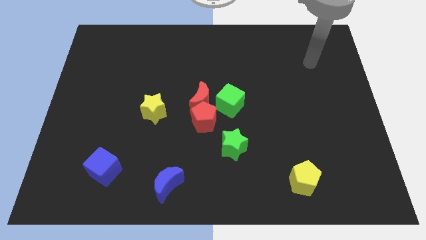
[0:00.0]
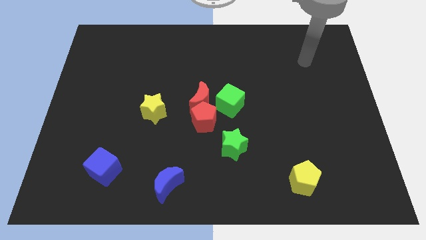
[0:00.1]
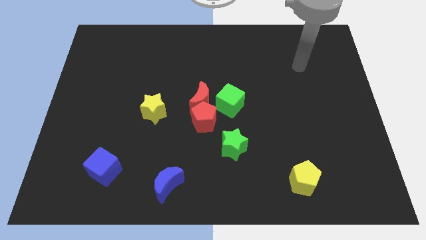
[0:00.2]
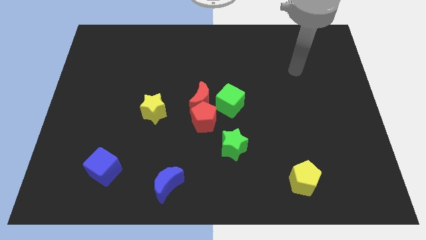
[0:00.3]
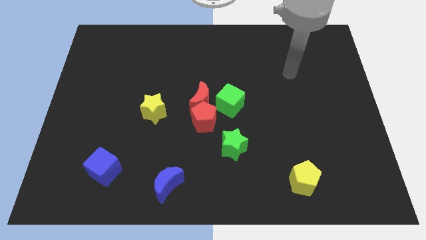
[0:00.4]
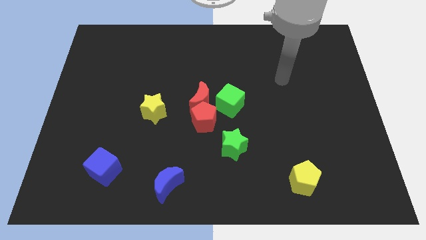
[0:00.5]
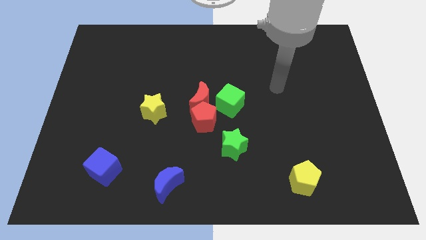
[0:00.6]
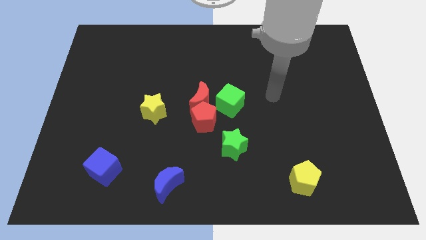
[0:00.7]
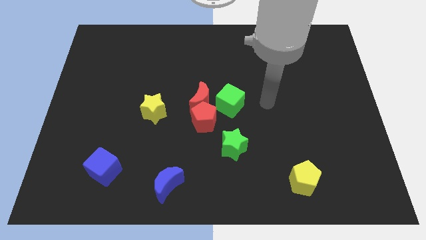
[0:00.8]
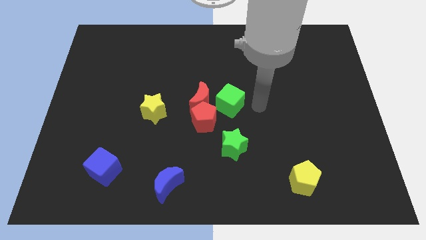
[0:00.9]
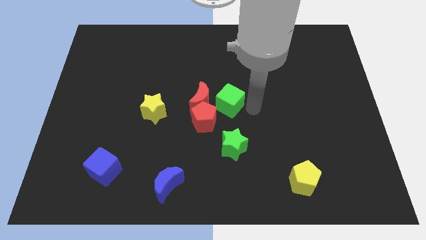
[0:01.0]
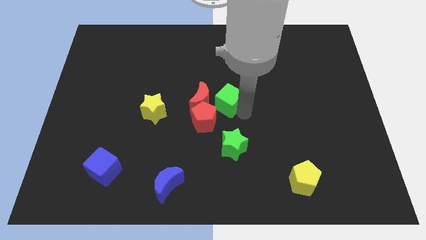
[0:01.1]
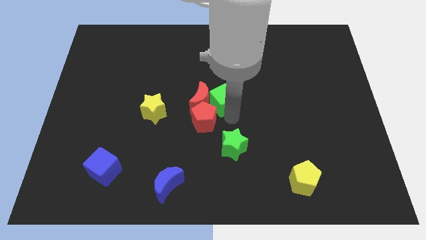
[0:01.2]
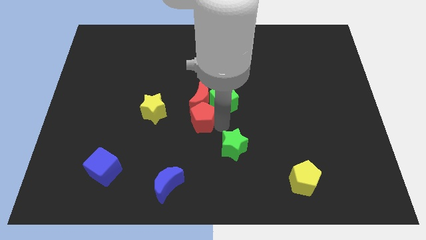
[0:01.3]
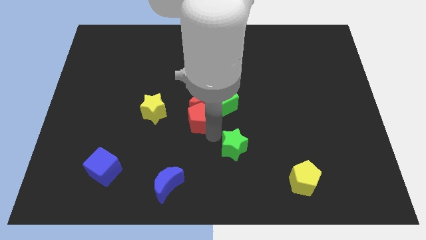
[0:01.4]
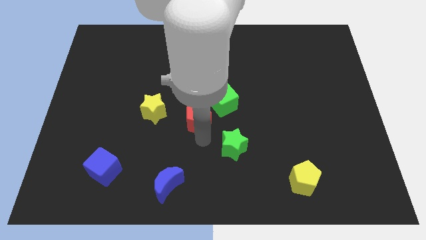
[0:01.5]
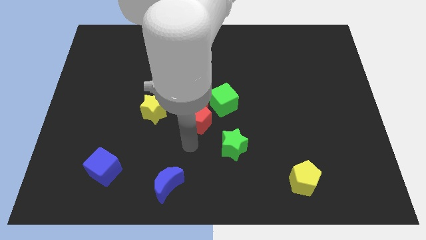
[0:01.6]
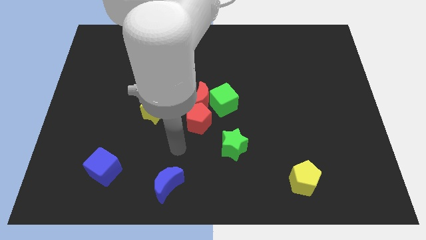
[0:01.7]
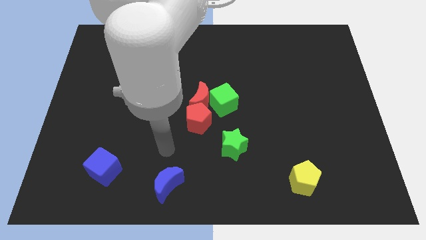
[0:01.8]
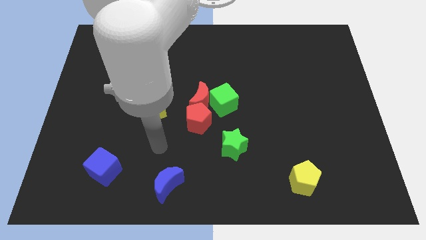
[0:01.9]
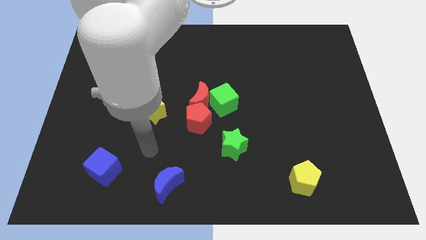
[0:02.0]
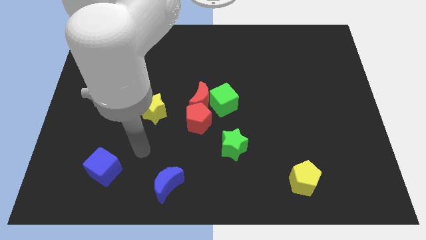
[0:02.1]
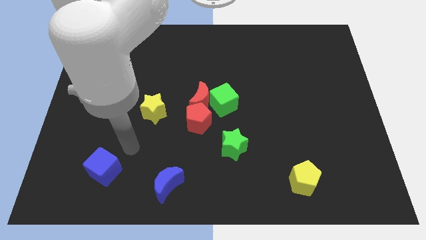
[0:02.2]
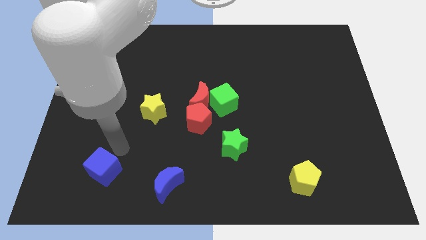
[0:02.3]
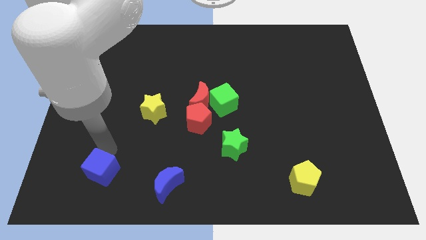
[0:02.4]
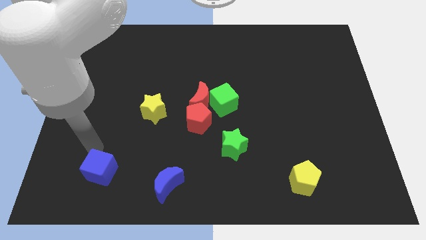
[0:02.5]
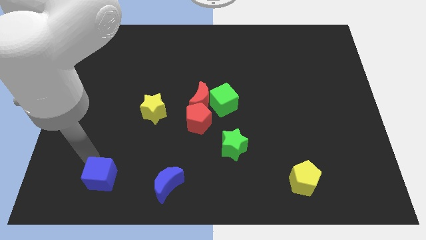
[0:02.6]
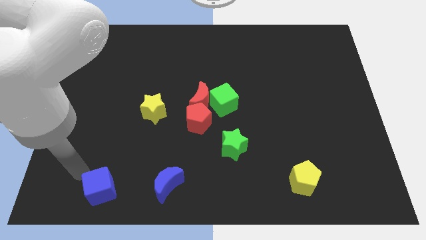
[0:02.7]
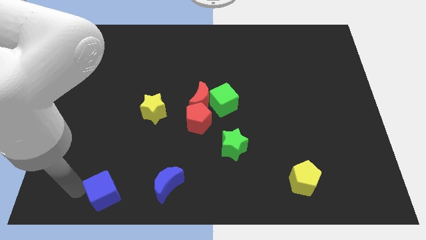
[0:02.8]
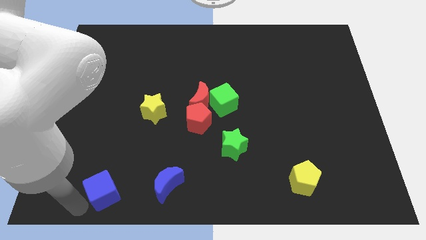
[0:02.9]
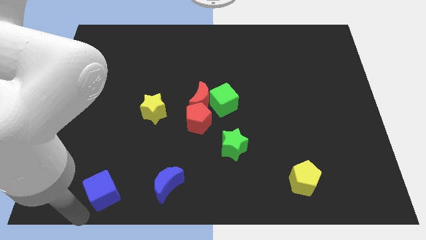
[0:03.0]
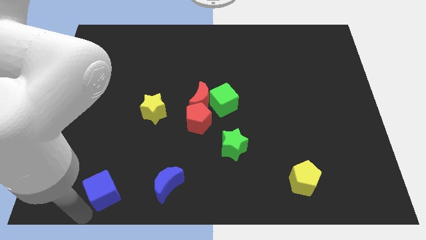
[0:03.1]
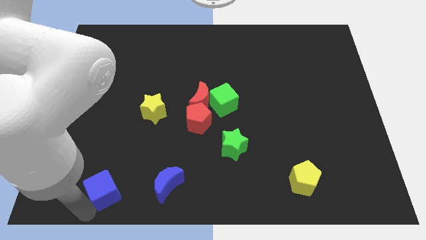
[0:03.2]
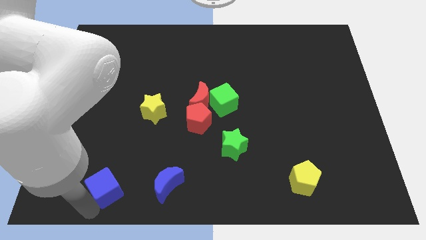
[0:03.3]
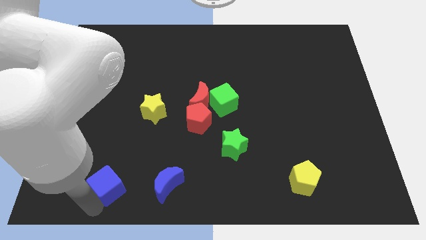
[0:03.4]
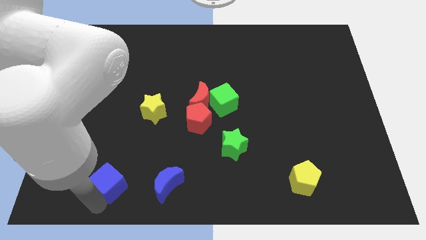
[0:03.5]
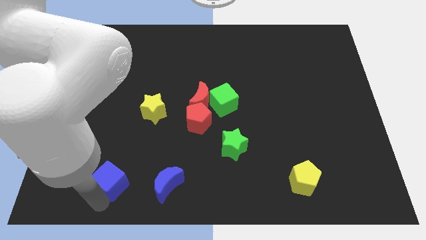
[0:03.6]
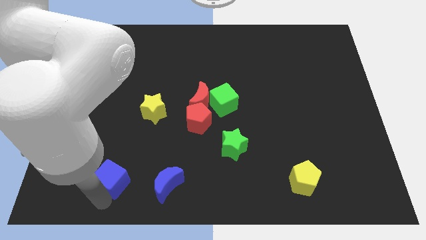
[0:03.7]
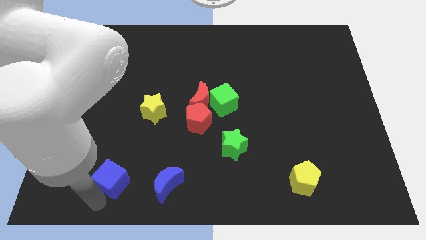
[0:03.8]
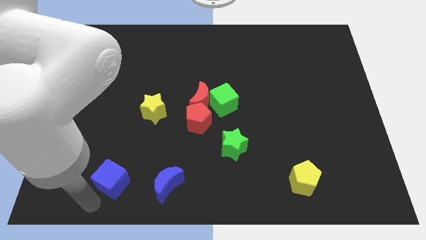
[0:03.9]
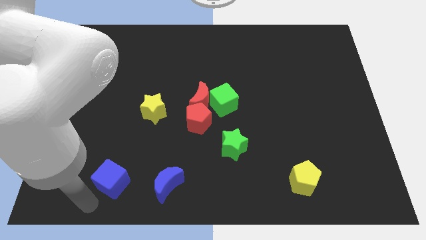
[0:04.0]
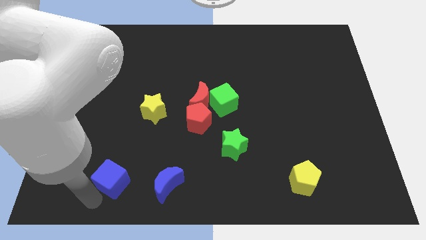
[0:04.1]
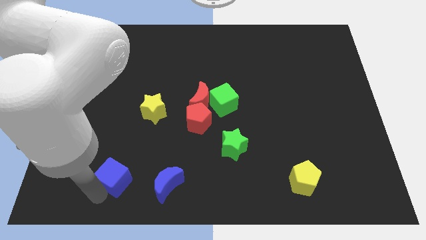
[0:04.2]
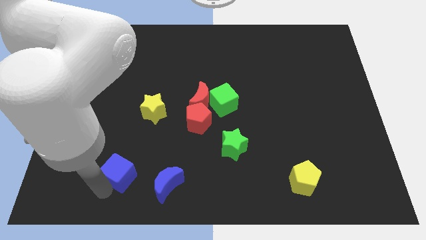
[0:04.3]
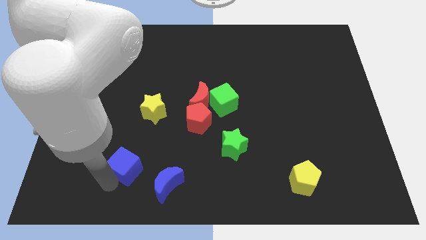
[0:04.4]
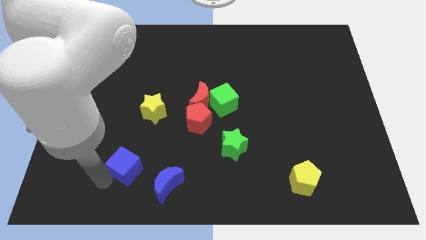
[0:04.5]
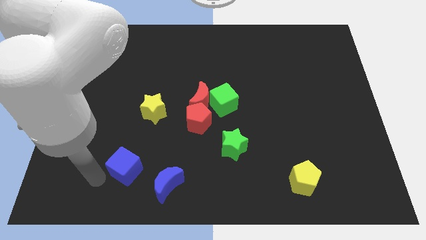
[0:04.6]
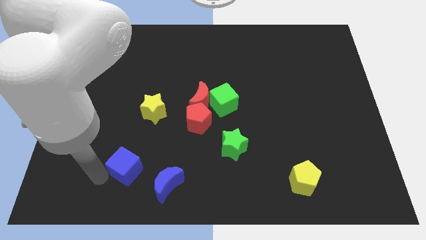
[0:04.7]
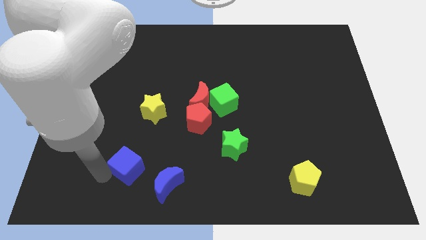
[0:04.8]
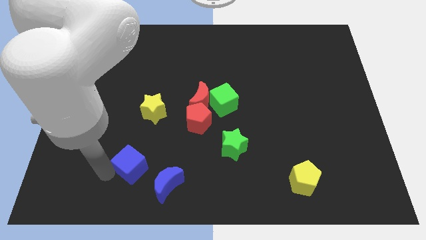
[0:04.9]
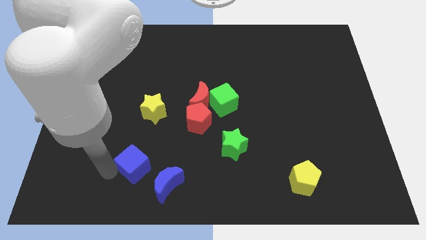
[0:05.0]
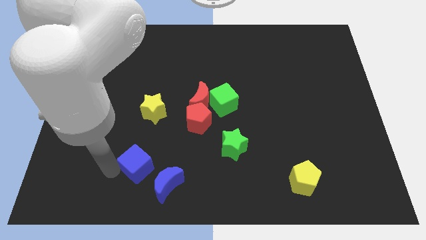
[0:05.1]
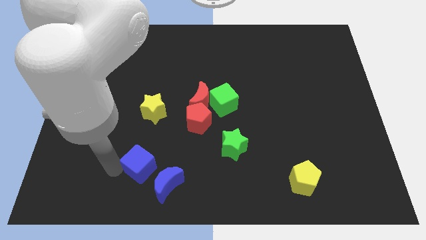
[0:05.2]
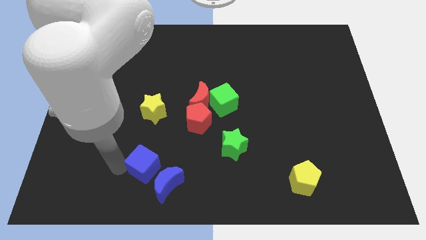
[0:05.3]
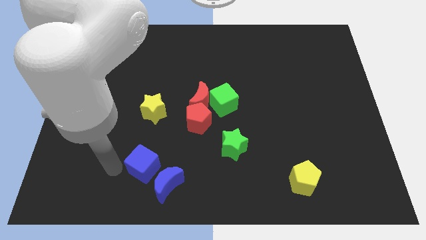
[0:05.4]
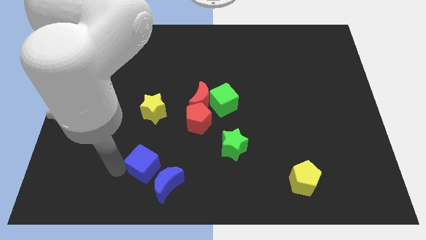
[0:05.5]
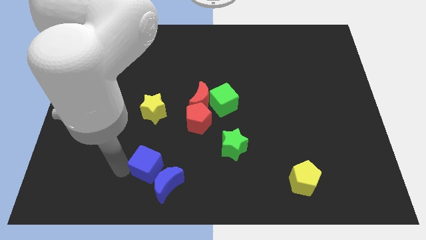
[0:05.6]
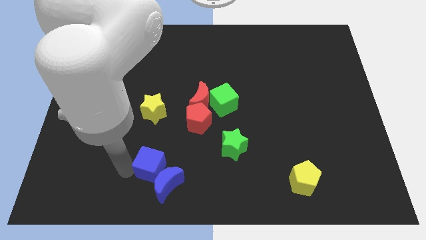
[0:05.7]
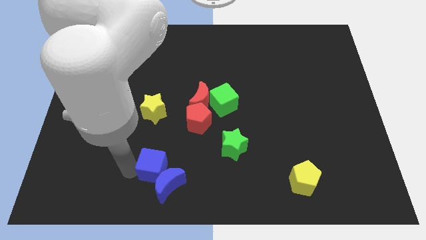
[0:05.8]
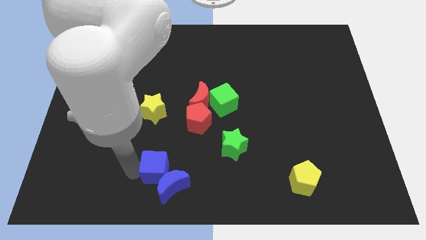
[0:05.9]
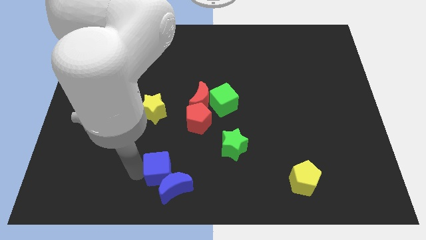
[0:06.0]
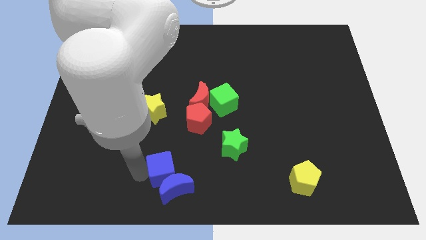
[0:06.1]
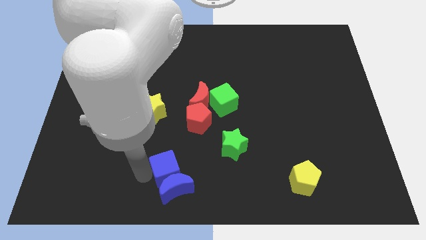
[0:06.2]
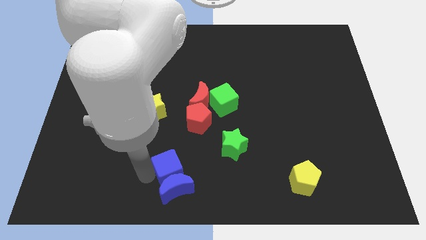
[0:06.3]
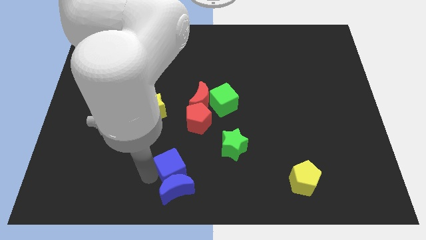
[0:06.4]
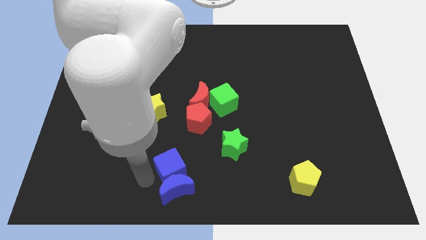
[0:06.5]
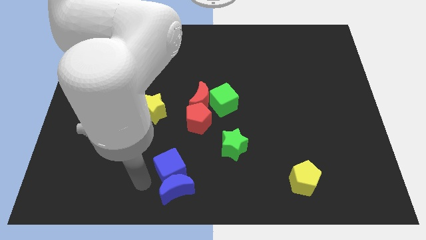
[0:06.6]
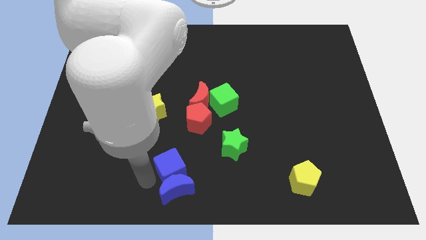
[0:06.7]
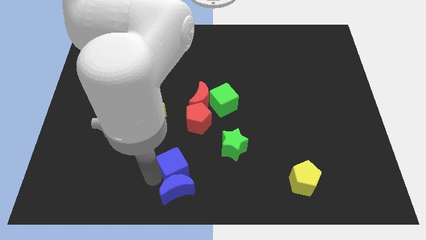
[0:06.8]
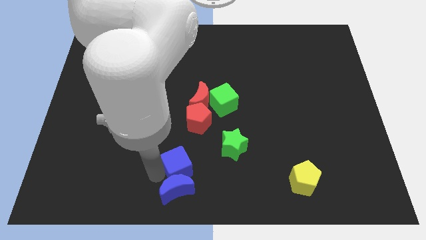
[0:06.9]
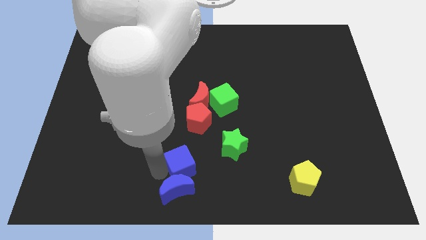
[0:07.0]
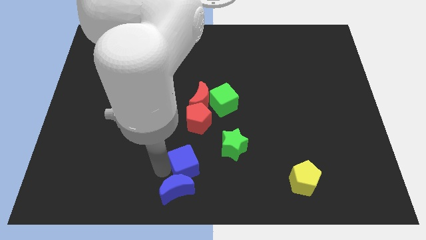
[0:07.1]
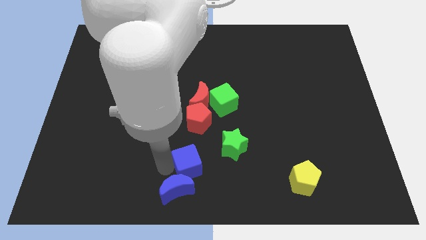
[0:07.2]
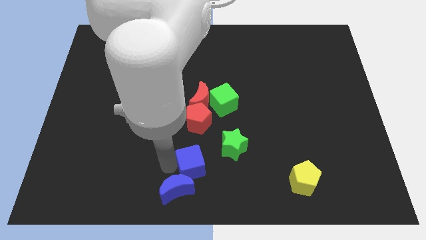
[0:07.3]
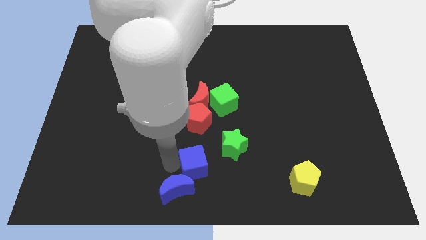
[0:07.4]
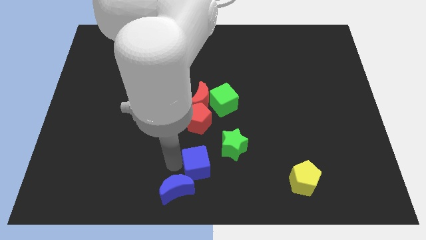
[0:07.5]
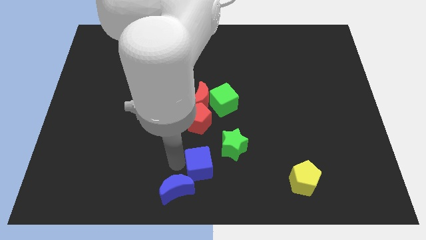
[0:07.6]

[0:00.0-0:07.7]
move the blue cube to the right

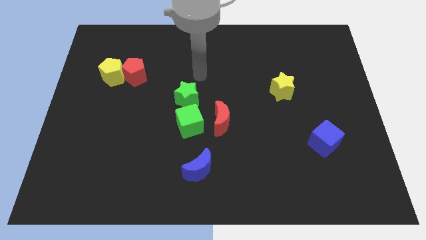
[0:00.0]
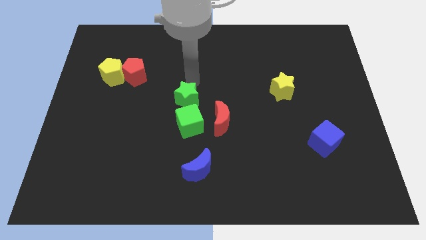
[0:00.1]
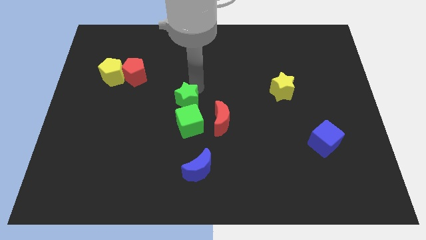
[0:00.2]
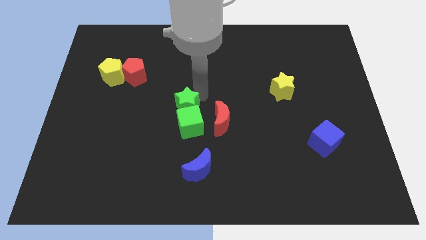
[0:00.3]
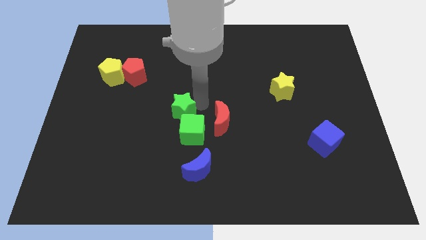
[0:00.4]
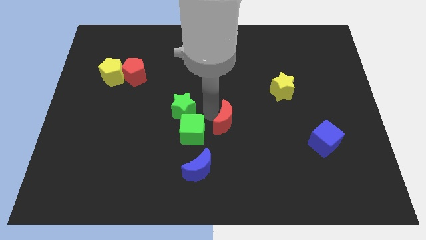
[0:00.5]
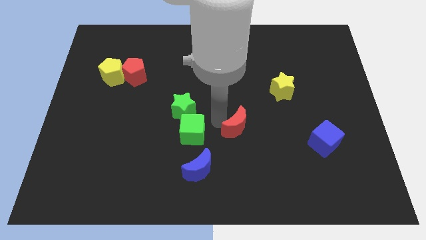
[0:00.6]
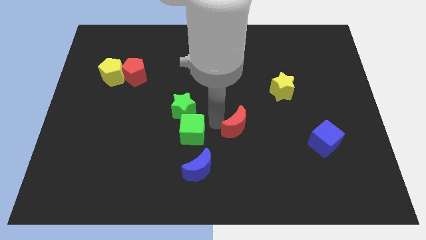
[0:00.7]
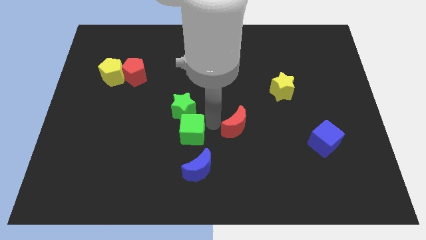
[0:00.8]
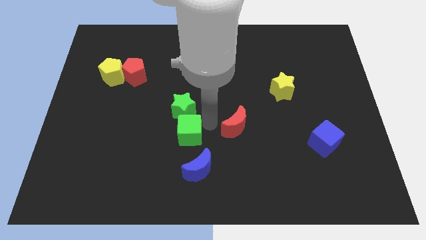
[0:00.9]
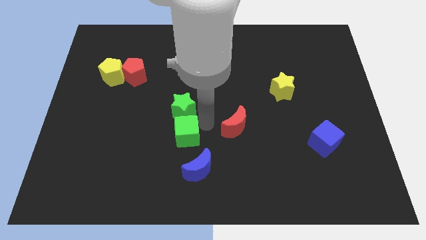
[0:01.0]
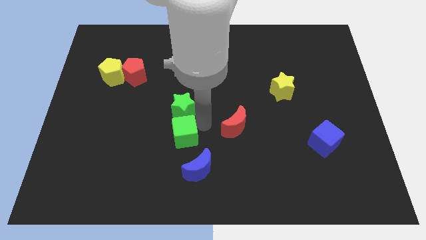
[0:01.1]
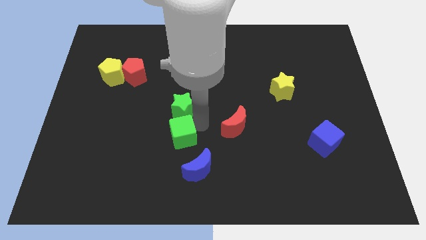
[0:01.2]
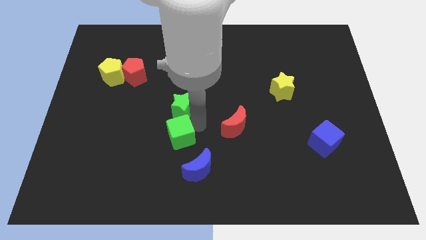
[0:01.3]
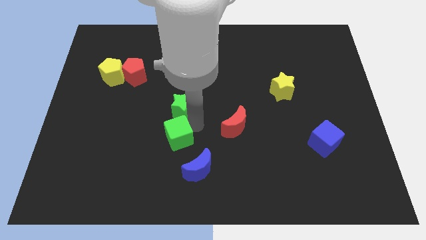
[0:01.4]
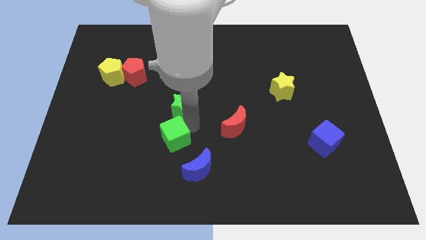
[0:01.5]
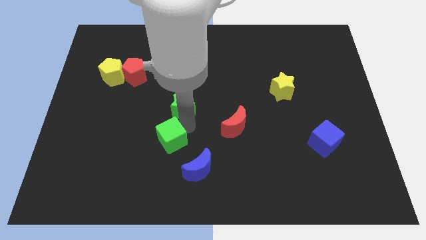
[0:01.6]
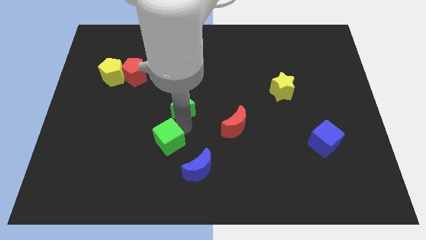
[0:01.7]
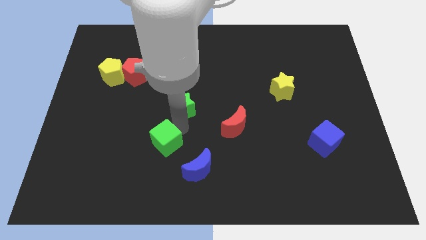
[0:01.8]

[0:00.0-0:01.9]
slightly push the green cube down and left diagonally
